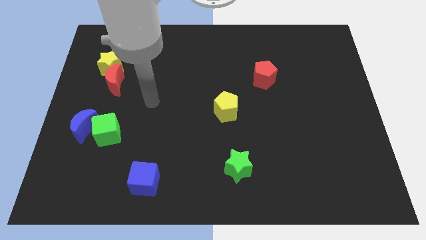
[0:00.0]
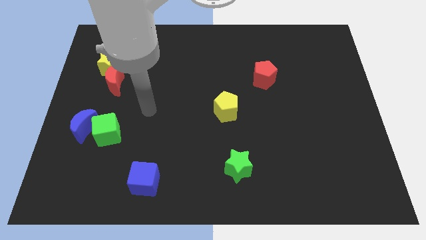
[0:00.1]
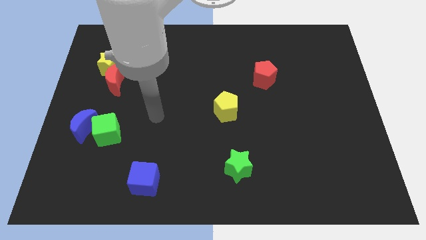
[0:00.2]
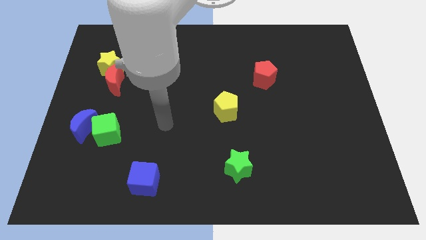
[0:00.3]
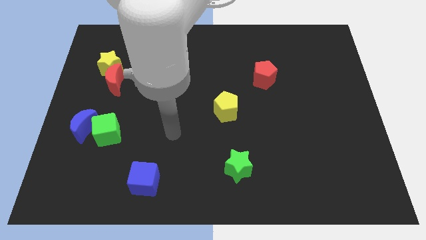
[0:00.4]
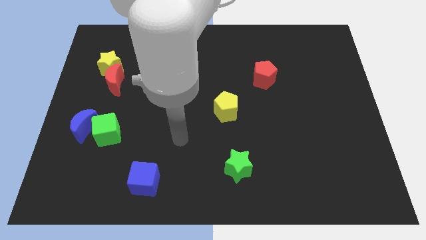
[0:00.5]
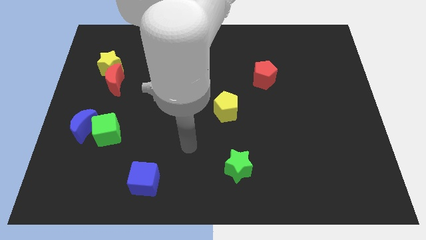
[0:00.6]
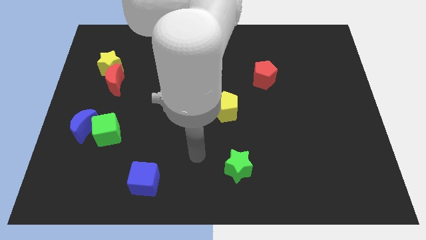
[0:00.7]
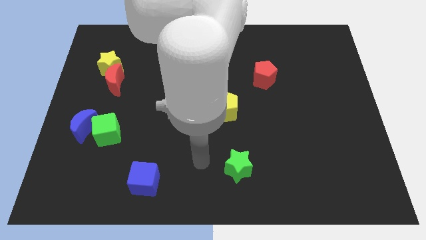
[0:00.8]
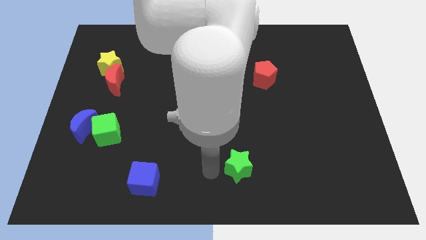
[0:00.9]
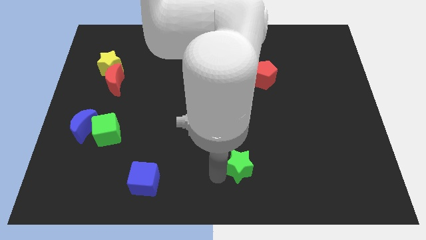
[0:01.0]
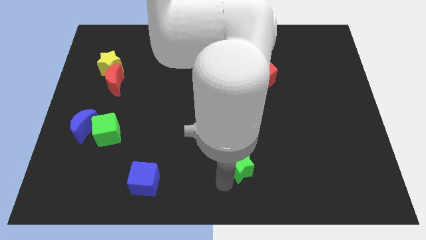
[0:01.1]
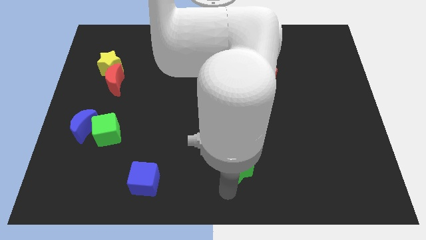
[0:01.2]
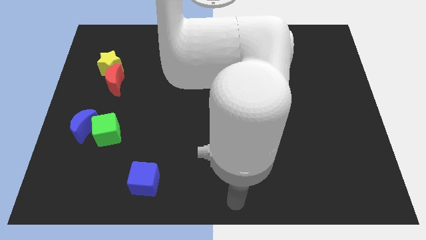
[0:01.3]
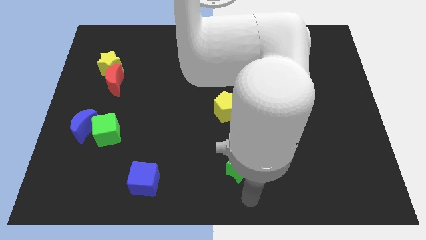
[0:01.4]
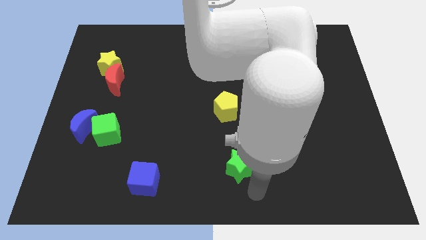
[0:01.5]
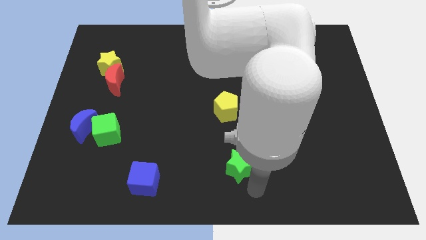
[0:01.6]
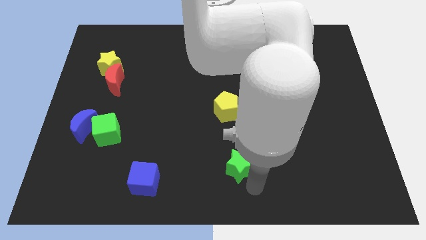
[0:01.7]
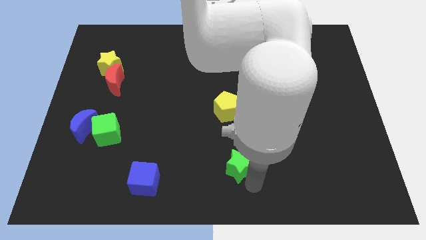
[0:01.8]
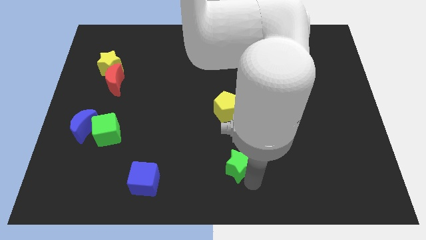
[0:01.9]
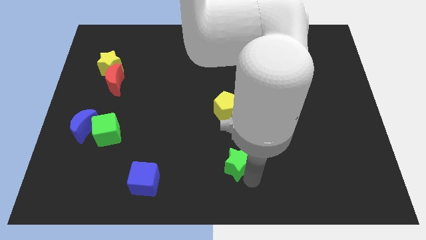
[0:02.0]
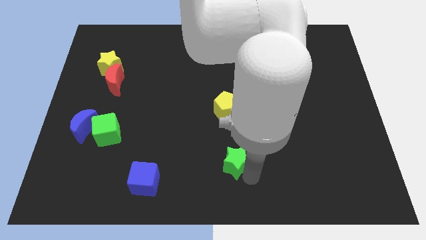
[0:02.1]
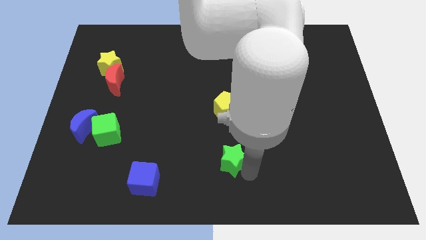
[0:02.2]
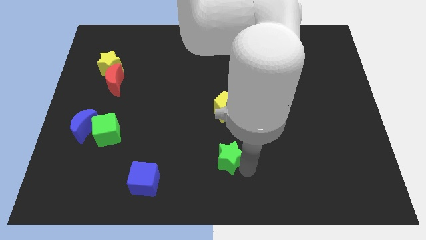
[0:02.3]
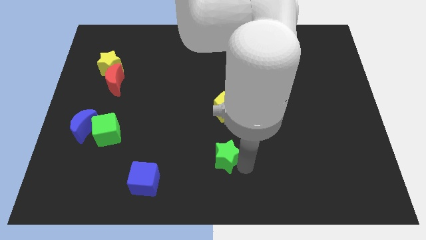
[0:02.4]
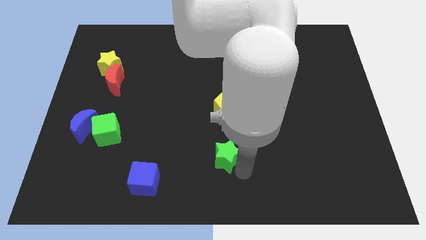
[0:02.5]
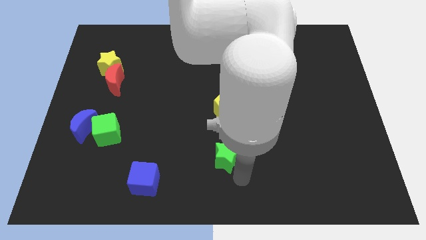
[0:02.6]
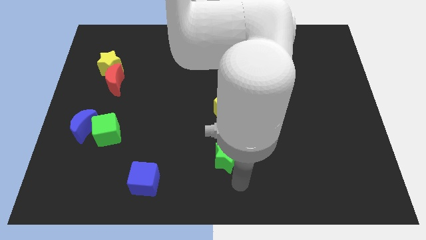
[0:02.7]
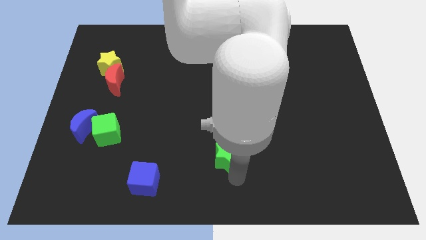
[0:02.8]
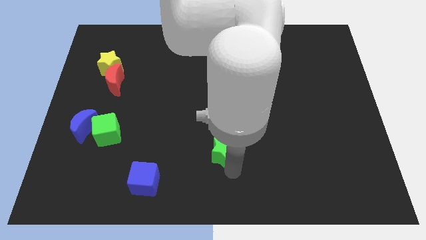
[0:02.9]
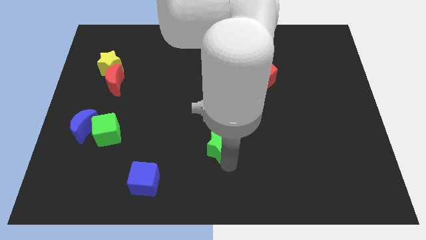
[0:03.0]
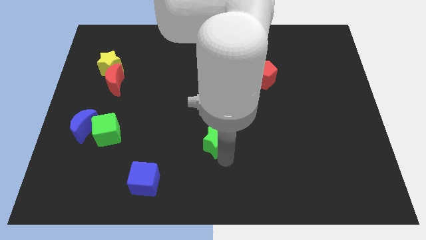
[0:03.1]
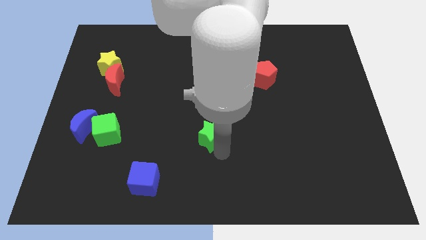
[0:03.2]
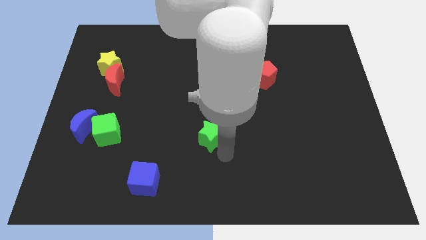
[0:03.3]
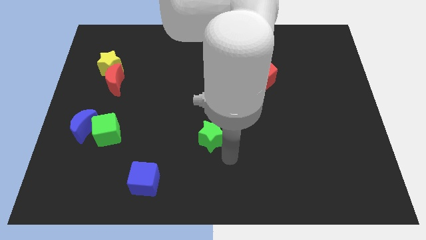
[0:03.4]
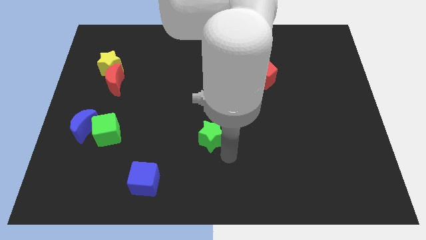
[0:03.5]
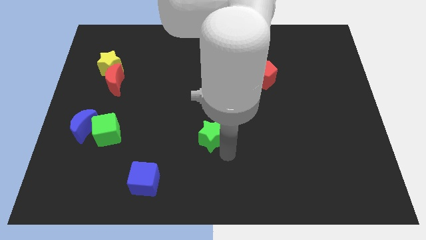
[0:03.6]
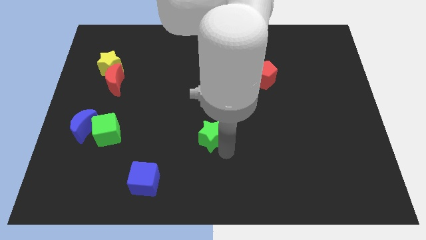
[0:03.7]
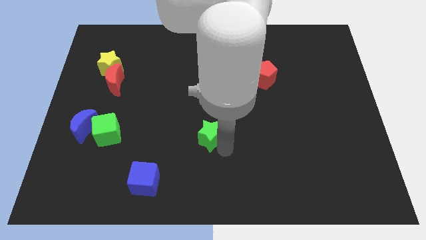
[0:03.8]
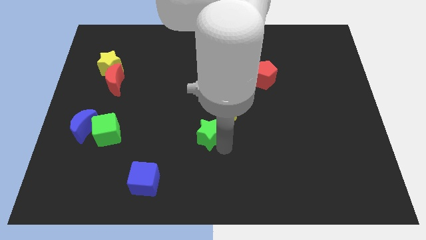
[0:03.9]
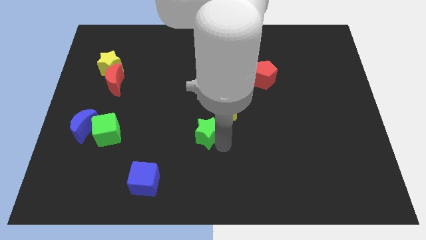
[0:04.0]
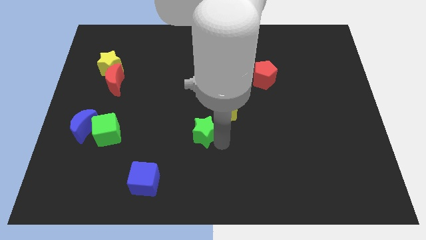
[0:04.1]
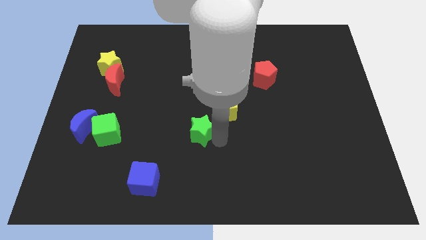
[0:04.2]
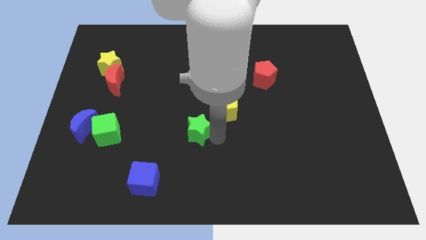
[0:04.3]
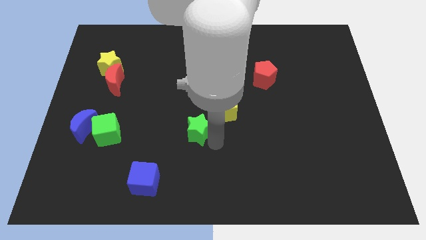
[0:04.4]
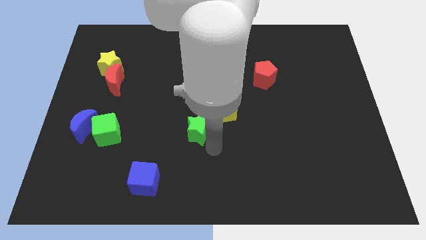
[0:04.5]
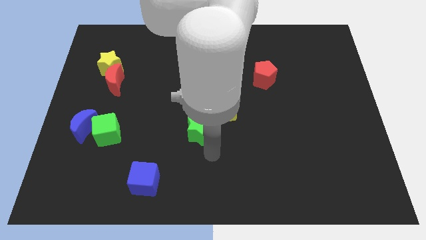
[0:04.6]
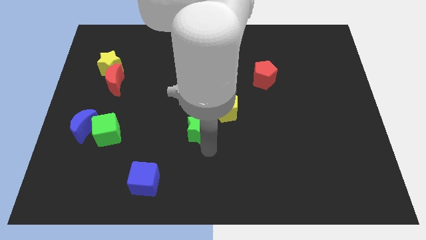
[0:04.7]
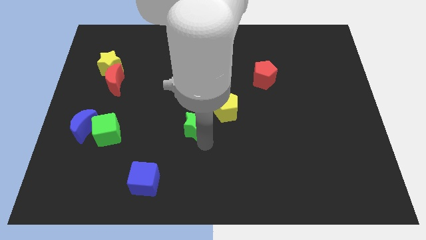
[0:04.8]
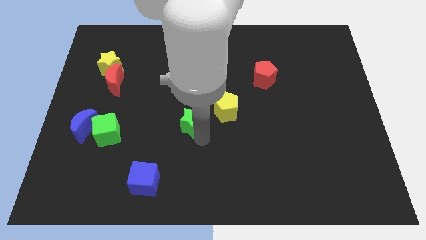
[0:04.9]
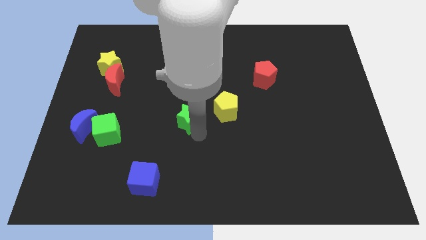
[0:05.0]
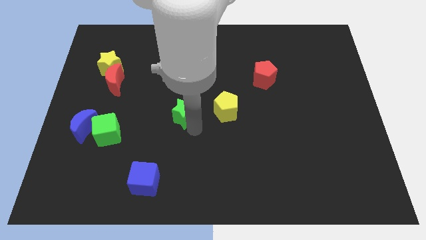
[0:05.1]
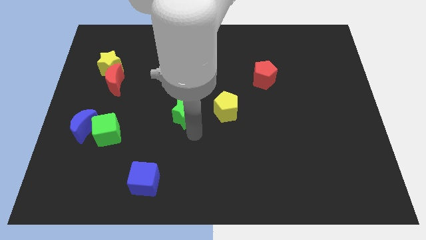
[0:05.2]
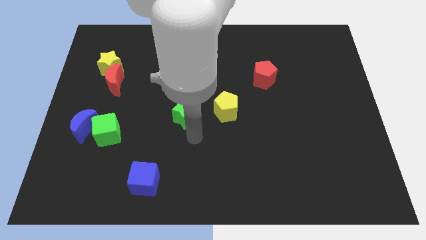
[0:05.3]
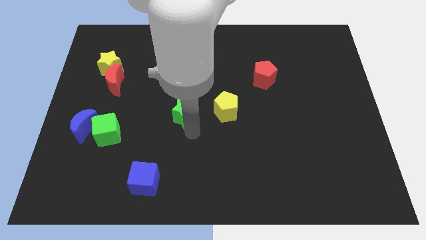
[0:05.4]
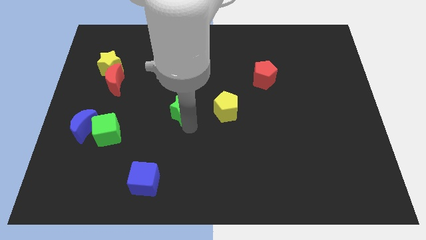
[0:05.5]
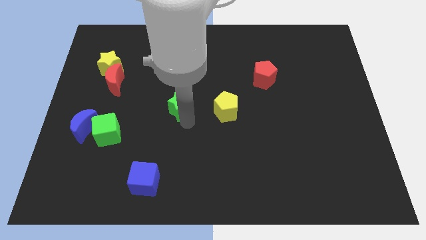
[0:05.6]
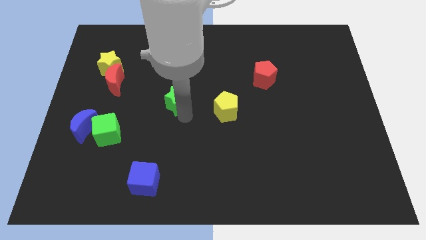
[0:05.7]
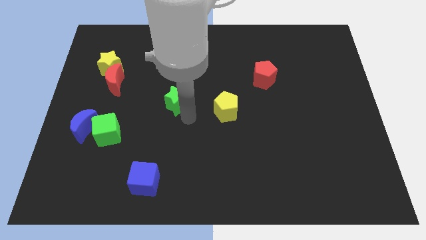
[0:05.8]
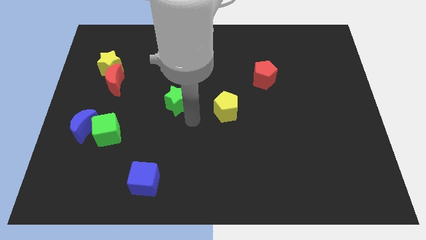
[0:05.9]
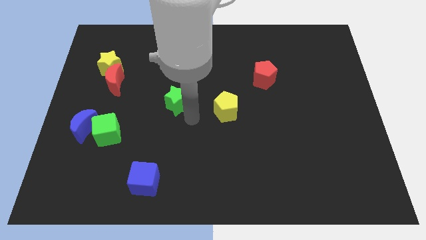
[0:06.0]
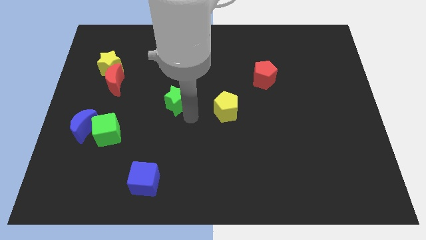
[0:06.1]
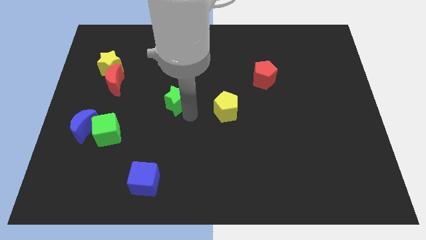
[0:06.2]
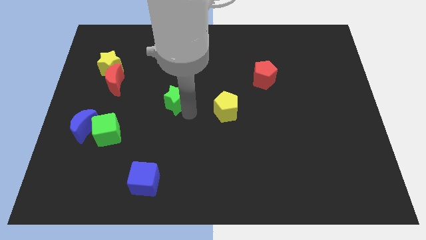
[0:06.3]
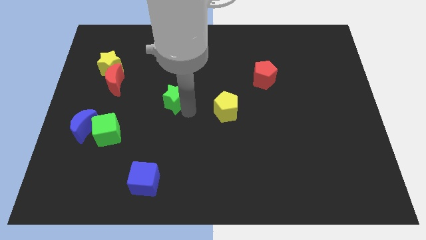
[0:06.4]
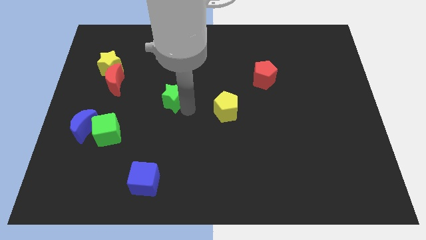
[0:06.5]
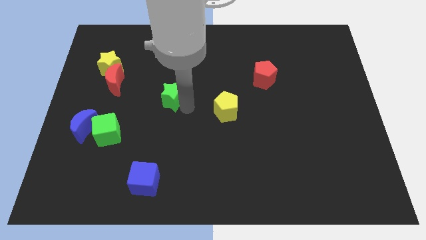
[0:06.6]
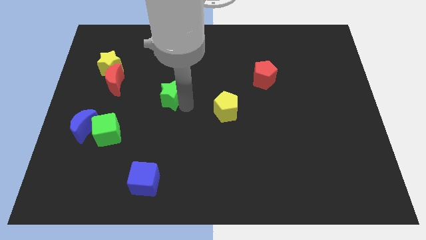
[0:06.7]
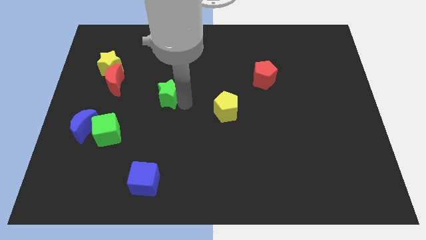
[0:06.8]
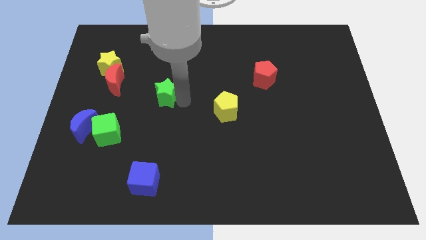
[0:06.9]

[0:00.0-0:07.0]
put the green star to the right side of the red moon
